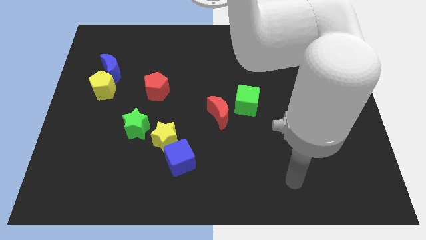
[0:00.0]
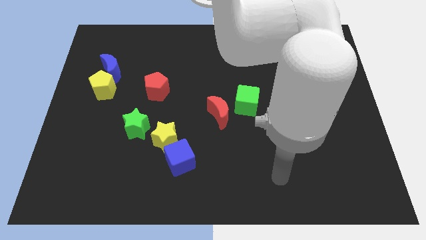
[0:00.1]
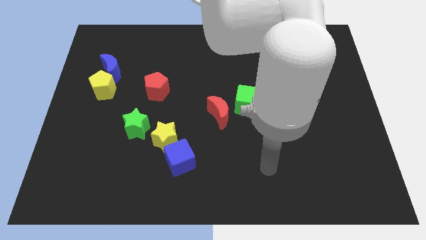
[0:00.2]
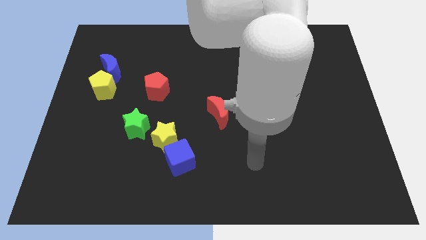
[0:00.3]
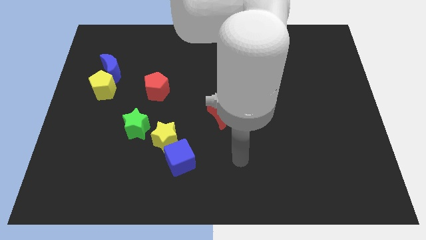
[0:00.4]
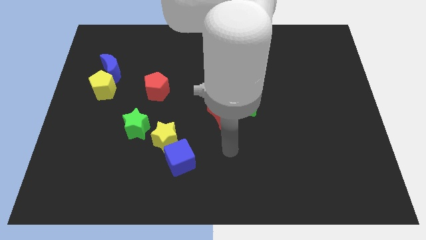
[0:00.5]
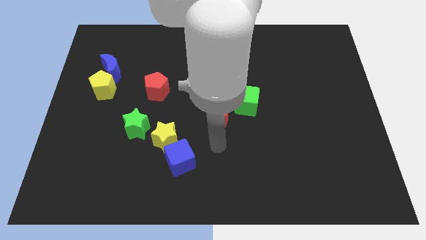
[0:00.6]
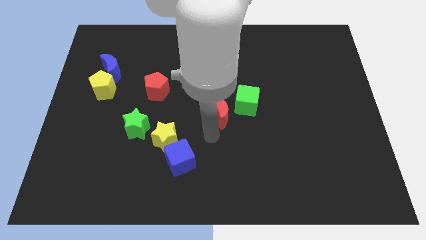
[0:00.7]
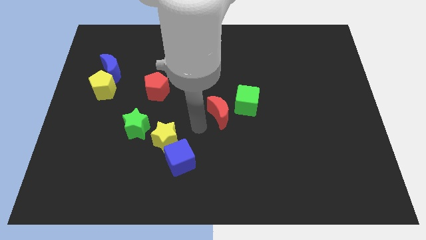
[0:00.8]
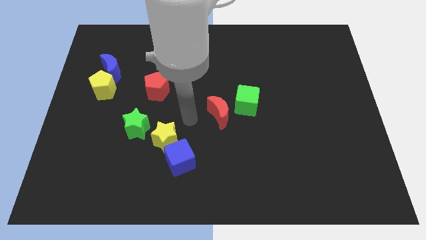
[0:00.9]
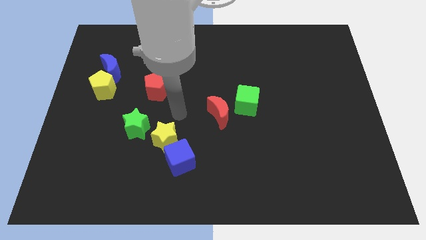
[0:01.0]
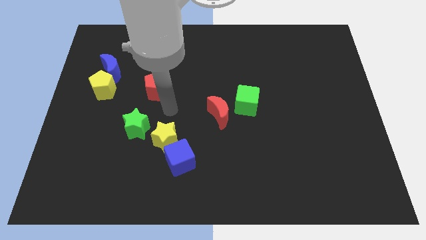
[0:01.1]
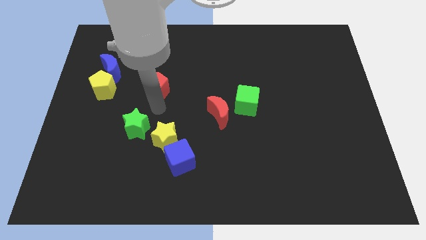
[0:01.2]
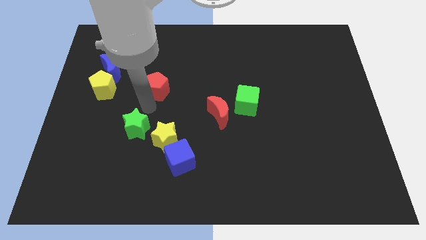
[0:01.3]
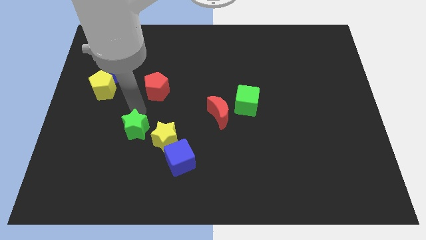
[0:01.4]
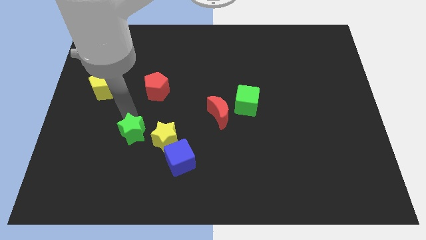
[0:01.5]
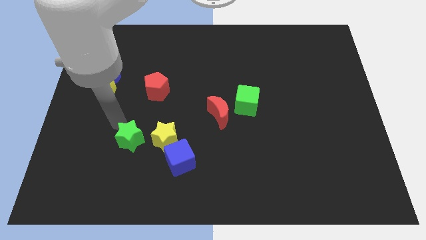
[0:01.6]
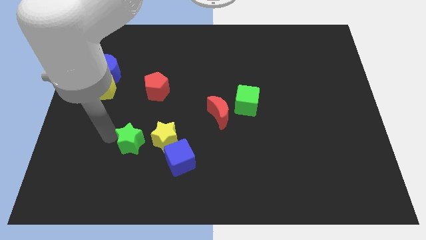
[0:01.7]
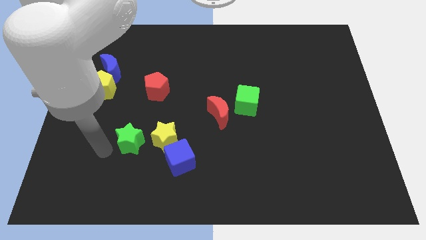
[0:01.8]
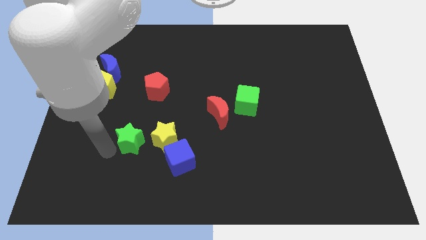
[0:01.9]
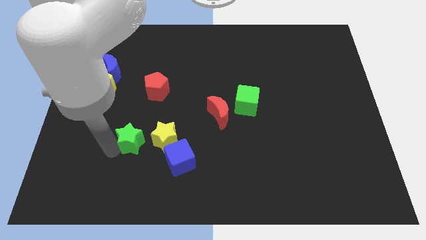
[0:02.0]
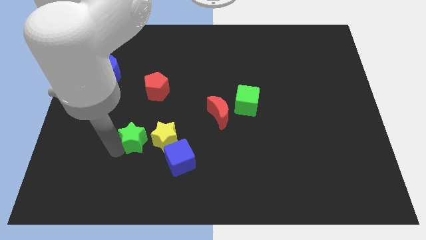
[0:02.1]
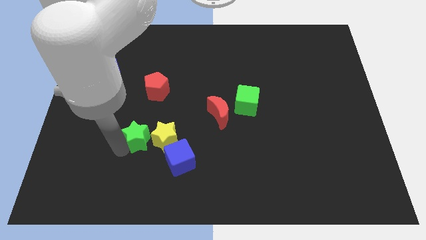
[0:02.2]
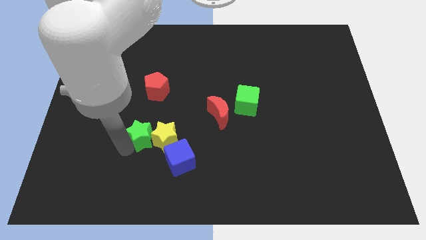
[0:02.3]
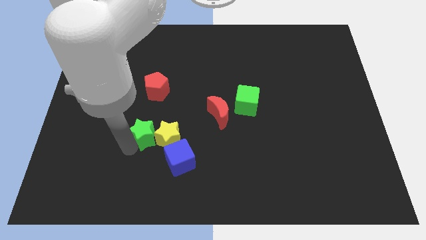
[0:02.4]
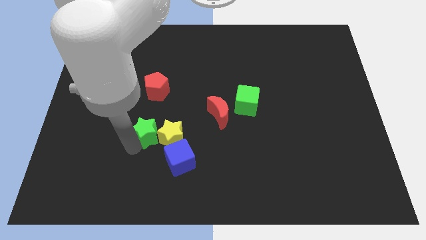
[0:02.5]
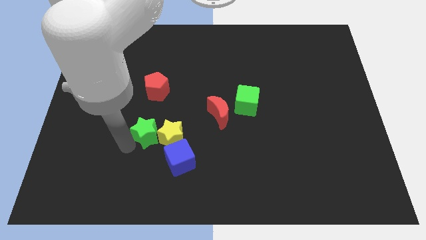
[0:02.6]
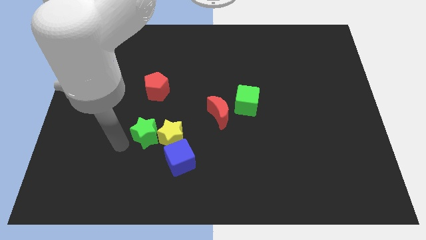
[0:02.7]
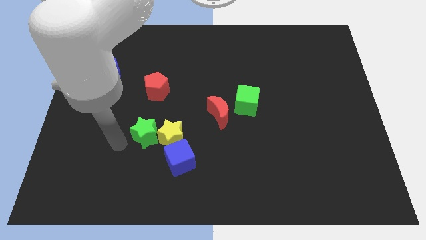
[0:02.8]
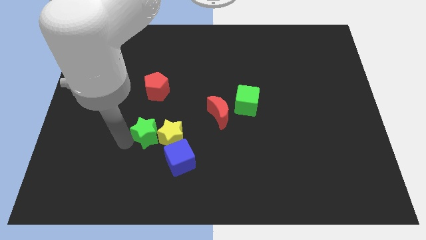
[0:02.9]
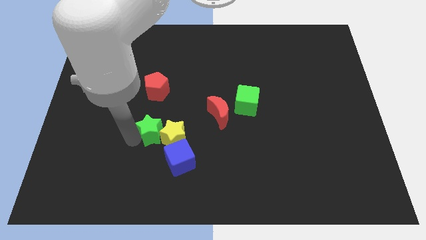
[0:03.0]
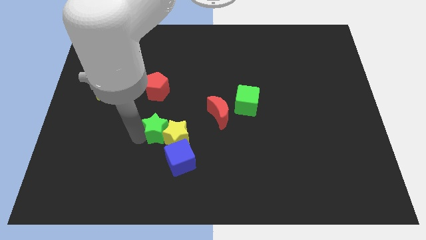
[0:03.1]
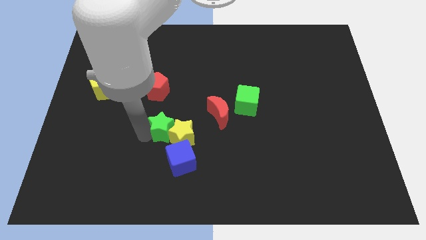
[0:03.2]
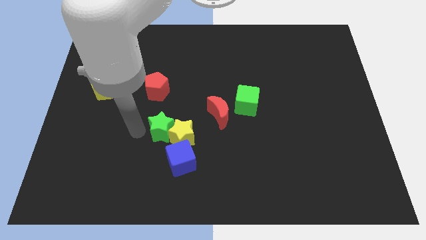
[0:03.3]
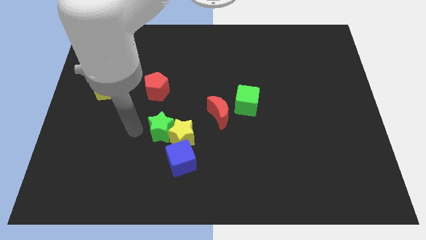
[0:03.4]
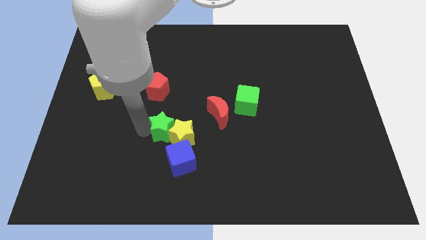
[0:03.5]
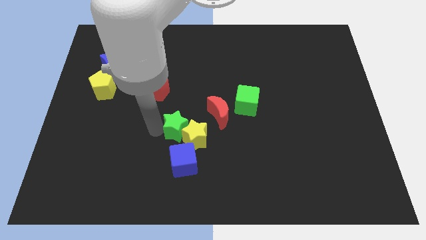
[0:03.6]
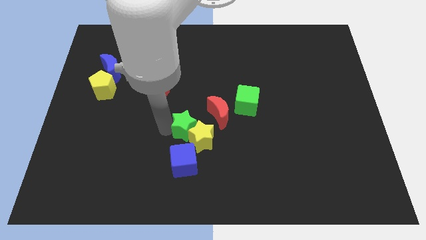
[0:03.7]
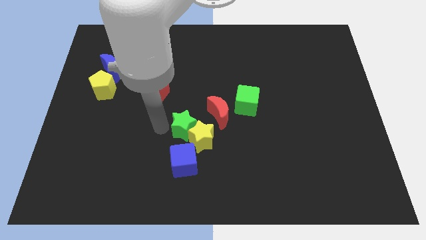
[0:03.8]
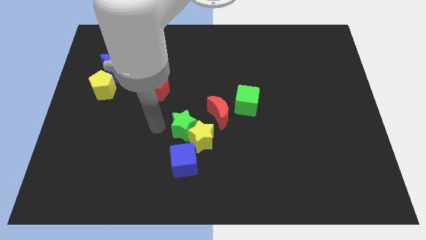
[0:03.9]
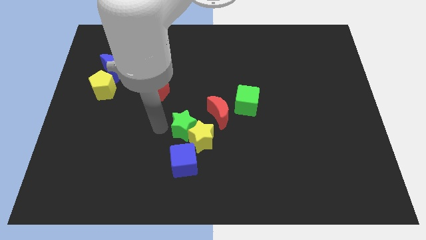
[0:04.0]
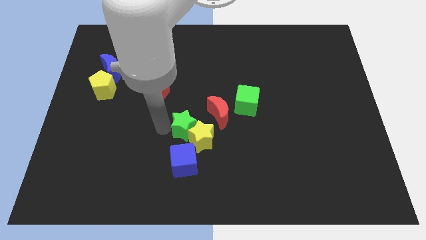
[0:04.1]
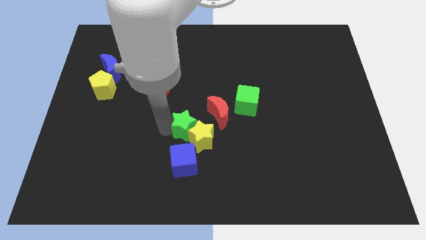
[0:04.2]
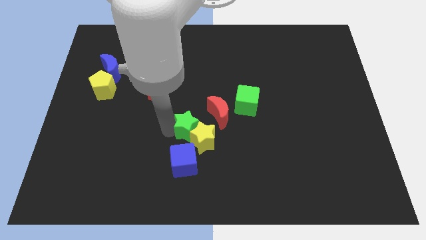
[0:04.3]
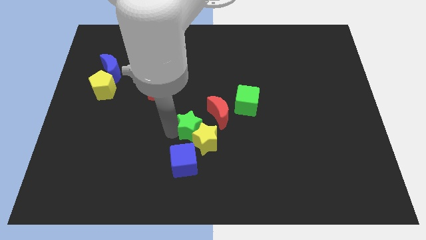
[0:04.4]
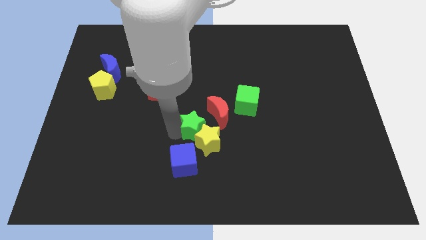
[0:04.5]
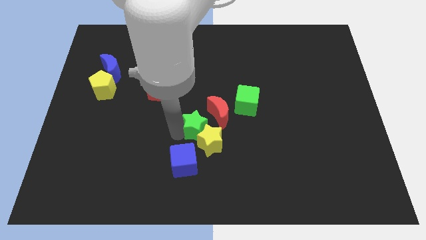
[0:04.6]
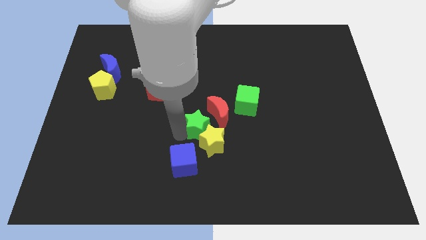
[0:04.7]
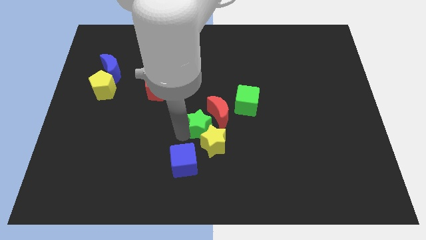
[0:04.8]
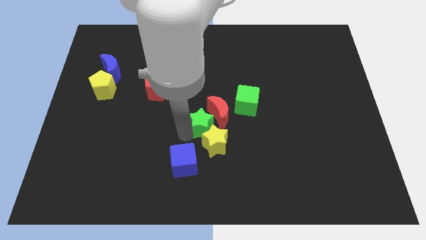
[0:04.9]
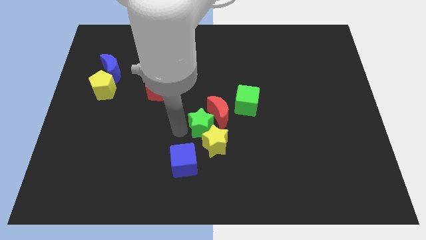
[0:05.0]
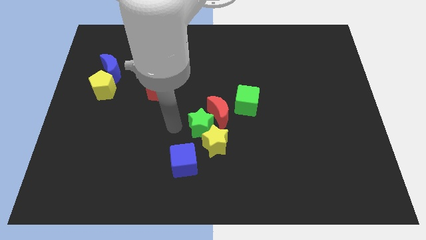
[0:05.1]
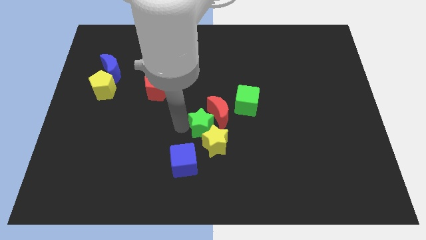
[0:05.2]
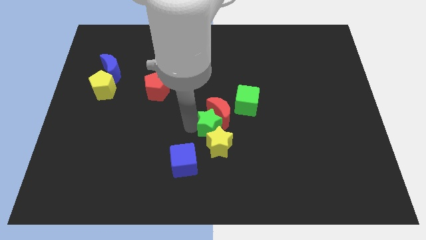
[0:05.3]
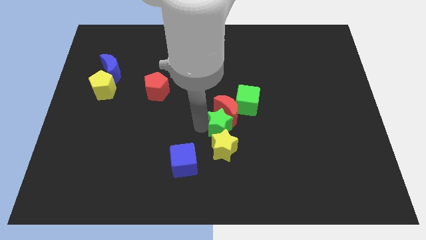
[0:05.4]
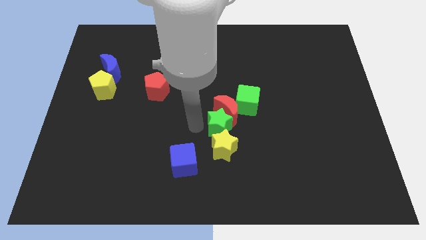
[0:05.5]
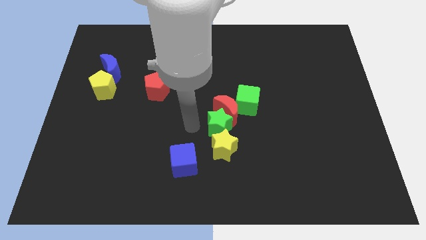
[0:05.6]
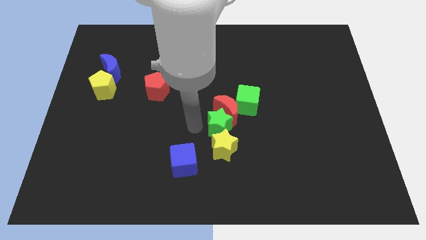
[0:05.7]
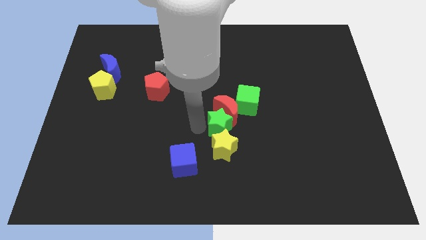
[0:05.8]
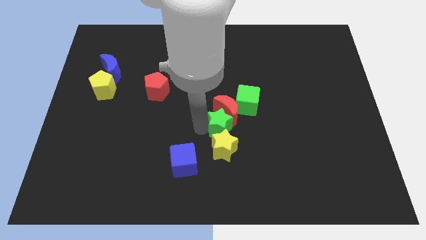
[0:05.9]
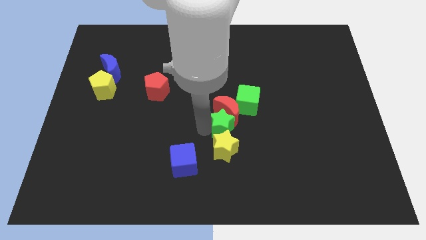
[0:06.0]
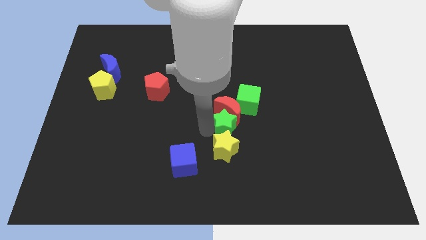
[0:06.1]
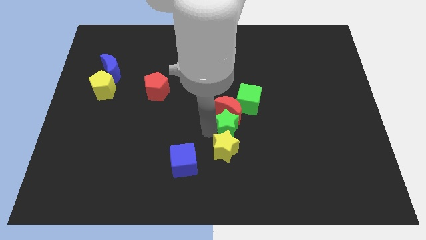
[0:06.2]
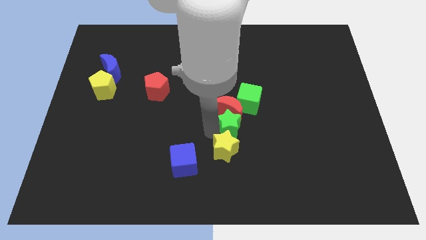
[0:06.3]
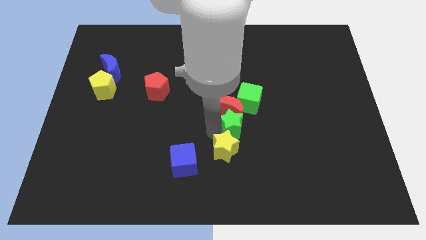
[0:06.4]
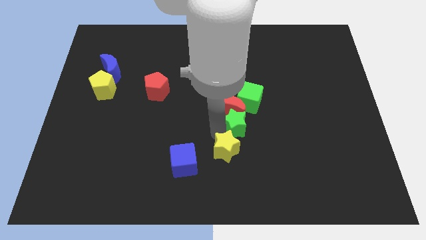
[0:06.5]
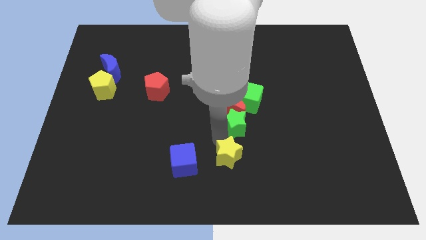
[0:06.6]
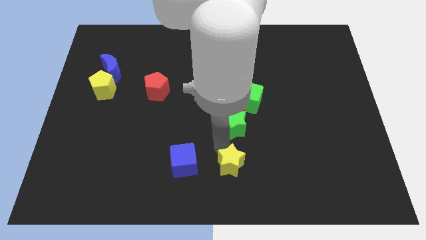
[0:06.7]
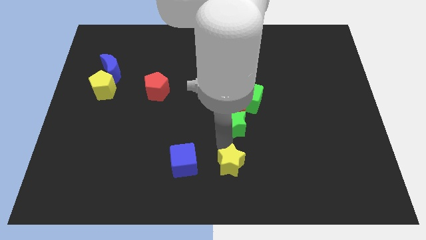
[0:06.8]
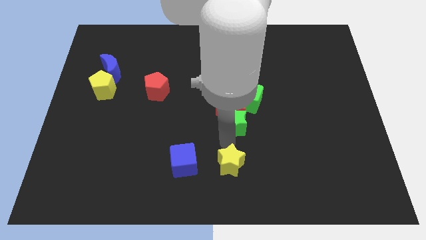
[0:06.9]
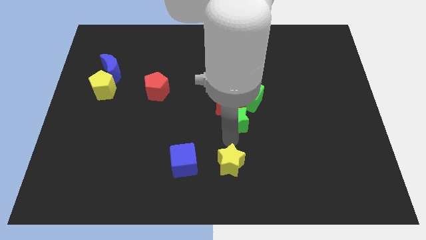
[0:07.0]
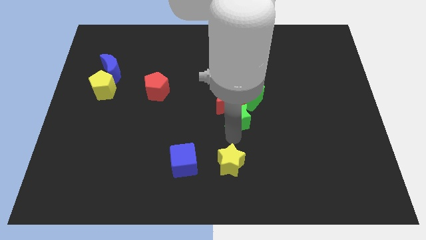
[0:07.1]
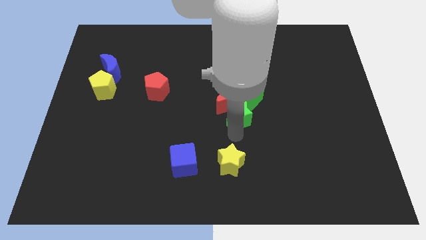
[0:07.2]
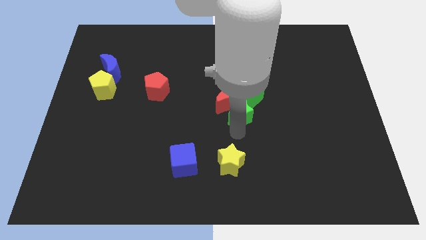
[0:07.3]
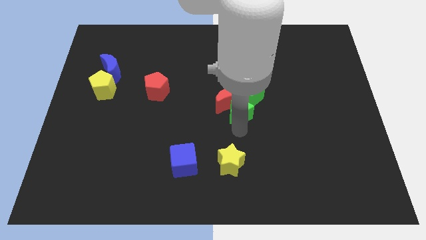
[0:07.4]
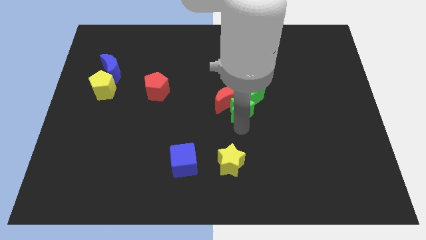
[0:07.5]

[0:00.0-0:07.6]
slide the green star close to the green cube
